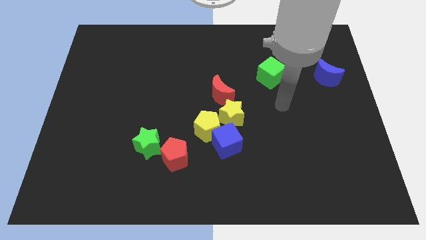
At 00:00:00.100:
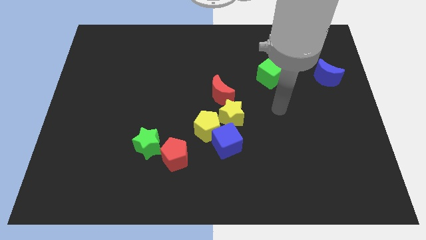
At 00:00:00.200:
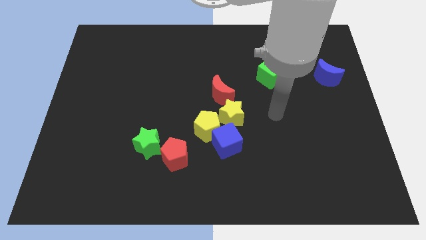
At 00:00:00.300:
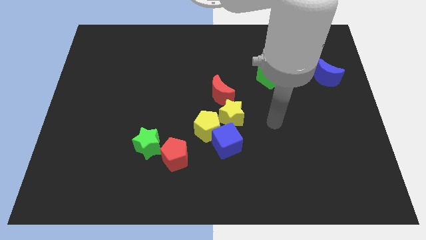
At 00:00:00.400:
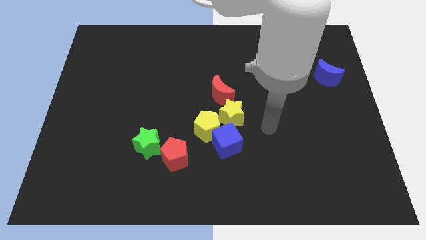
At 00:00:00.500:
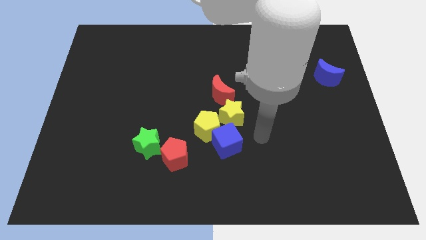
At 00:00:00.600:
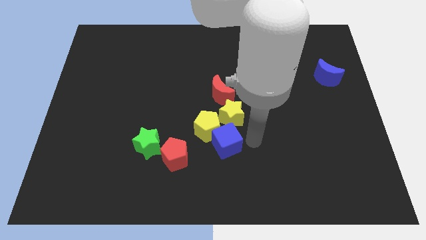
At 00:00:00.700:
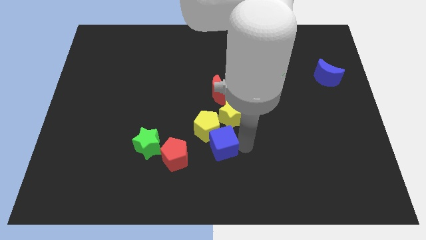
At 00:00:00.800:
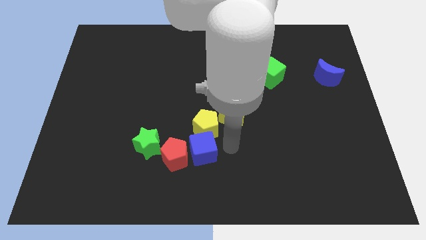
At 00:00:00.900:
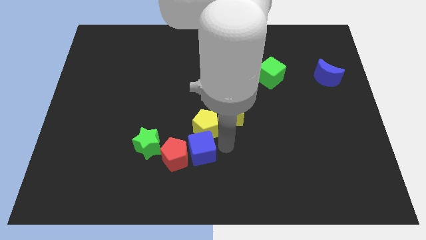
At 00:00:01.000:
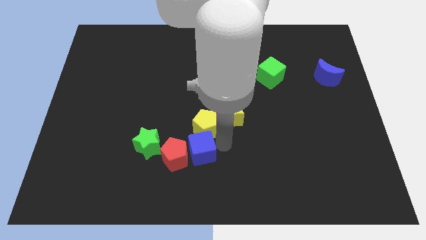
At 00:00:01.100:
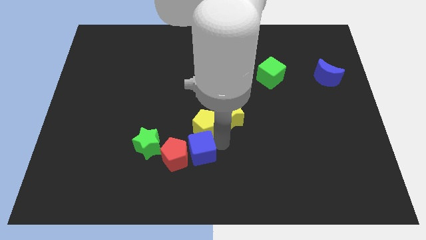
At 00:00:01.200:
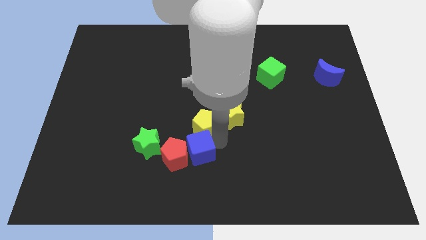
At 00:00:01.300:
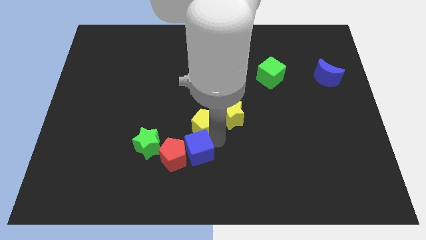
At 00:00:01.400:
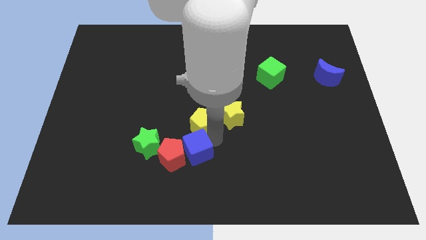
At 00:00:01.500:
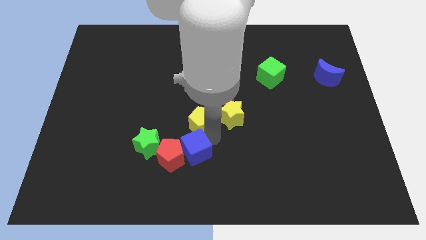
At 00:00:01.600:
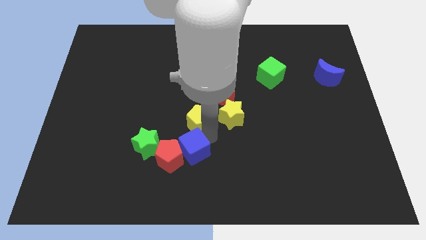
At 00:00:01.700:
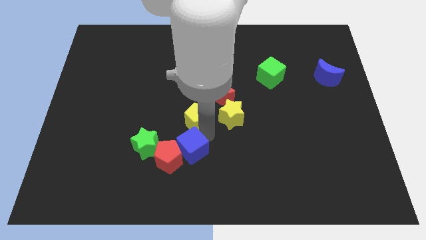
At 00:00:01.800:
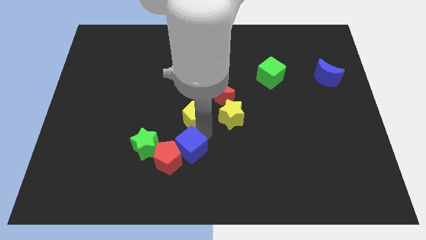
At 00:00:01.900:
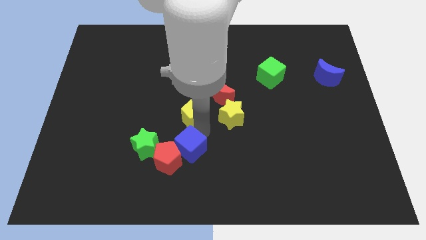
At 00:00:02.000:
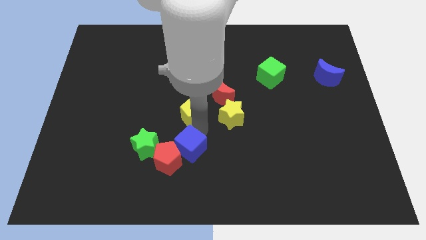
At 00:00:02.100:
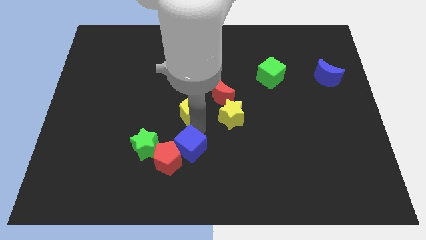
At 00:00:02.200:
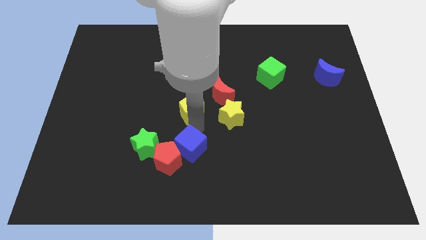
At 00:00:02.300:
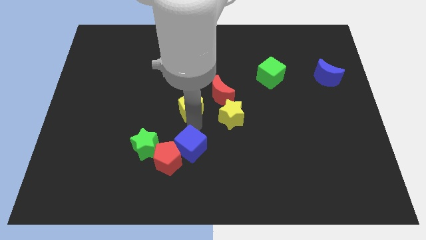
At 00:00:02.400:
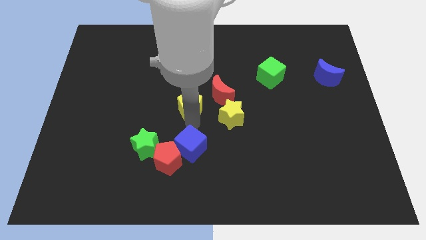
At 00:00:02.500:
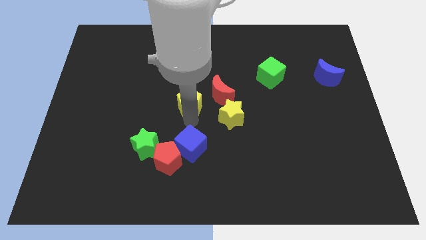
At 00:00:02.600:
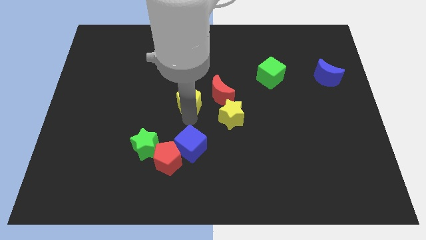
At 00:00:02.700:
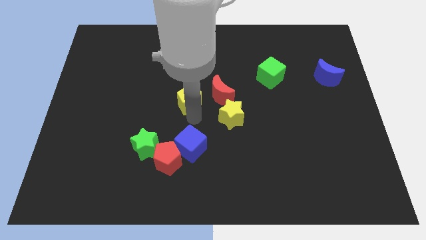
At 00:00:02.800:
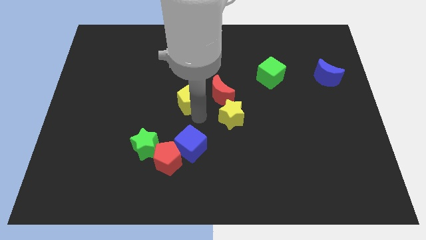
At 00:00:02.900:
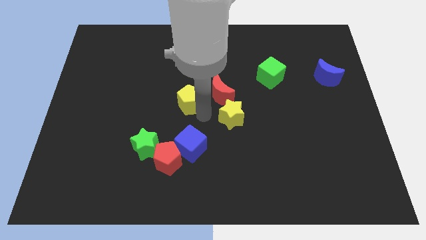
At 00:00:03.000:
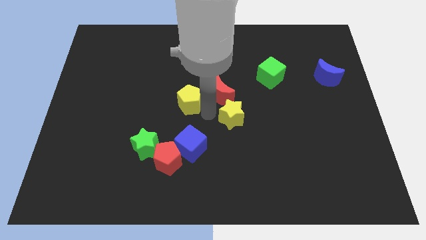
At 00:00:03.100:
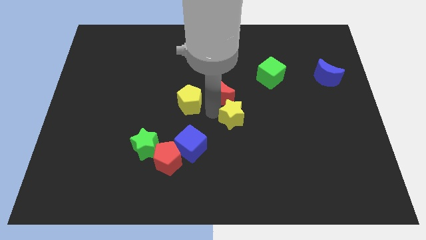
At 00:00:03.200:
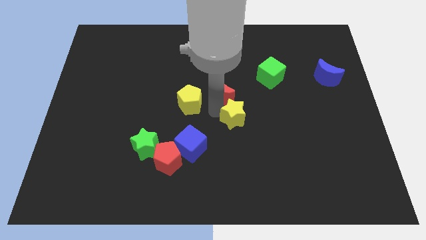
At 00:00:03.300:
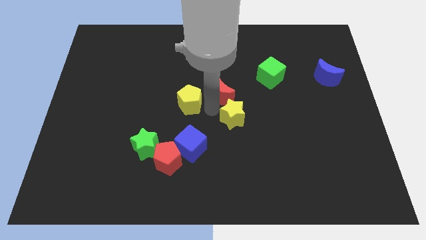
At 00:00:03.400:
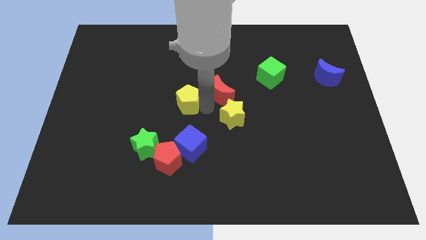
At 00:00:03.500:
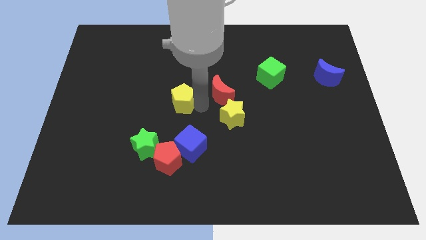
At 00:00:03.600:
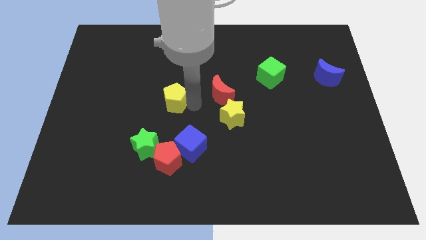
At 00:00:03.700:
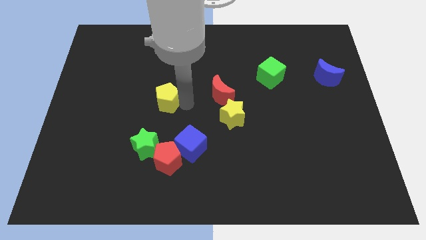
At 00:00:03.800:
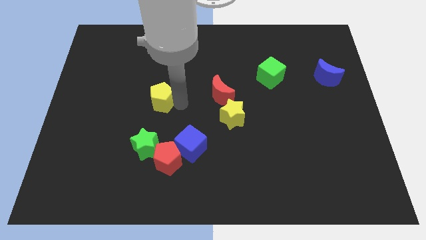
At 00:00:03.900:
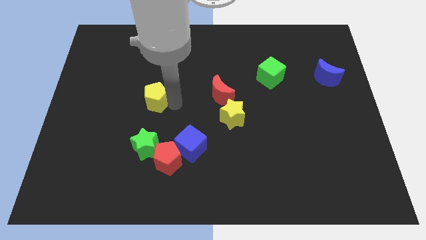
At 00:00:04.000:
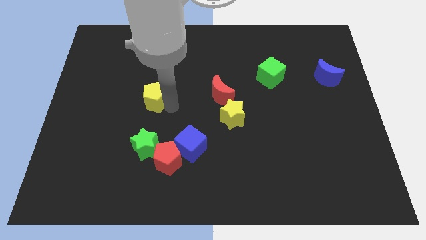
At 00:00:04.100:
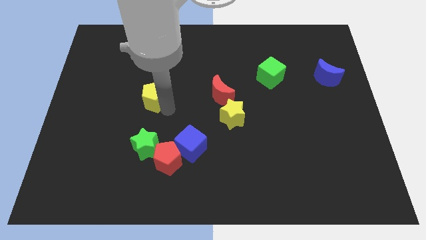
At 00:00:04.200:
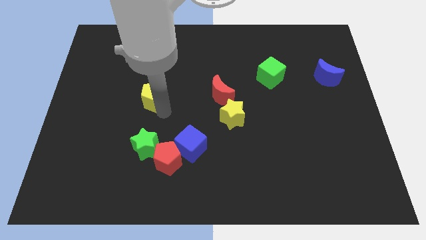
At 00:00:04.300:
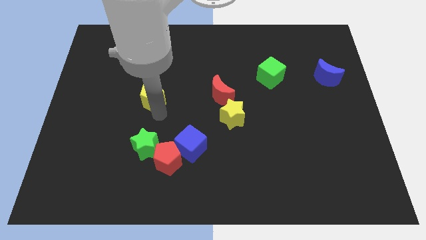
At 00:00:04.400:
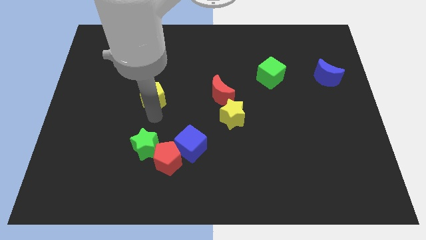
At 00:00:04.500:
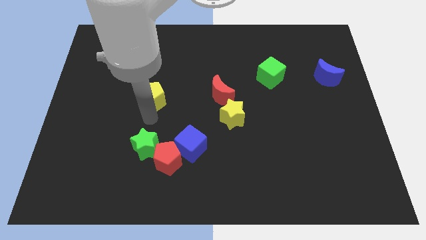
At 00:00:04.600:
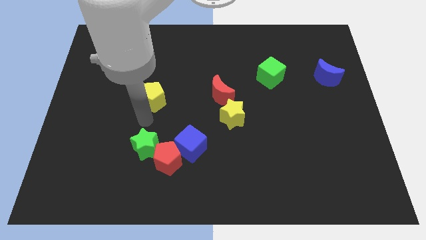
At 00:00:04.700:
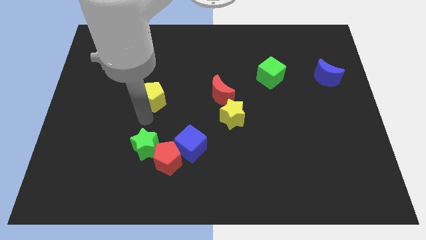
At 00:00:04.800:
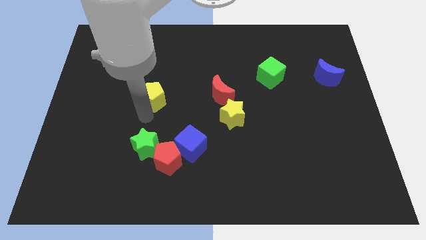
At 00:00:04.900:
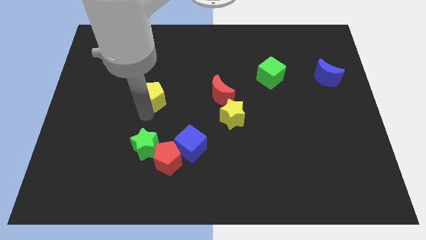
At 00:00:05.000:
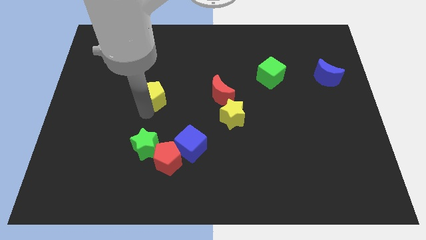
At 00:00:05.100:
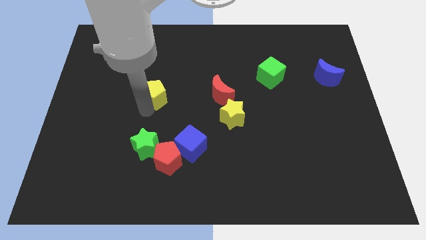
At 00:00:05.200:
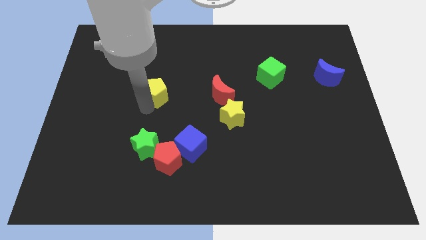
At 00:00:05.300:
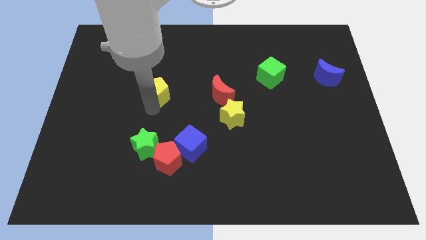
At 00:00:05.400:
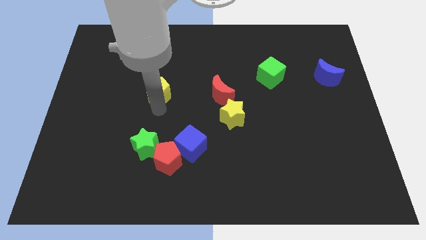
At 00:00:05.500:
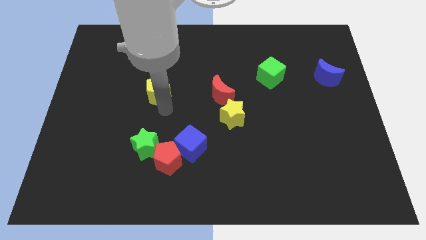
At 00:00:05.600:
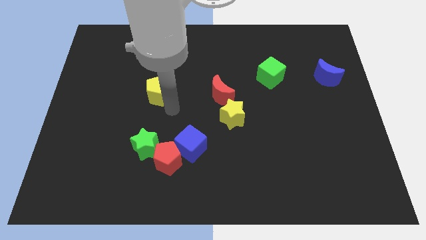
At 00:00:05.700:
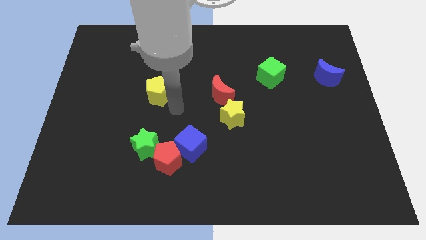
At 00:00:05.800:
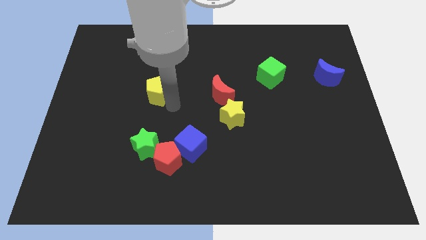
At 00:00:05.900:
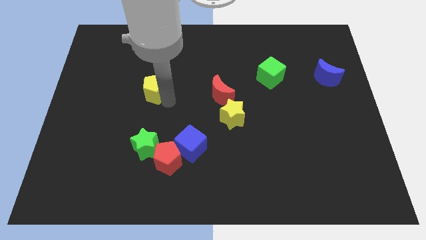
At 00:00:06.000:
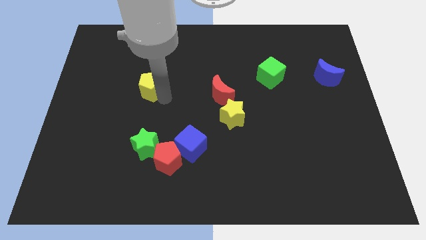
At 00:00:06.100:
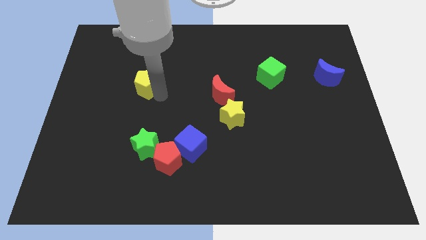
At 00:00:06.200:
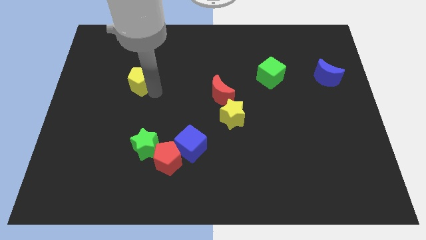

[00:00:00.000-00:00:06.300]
move the yellow pentagon upwards and left diagonally

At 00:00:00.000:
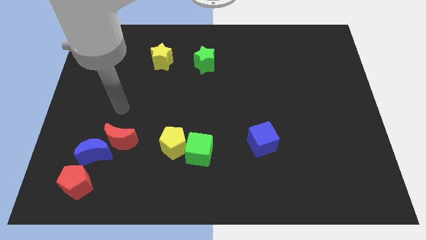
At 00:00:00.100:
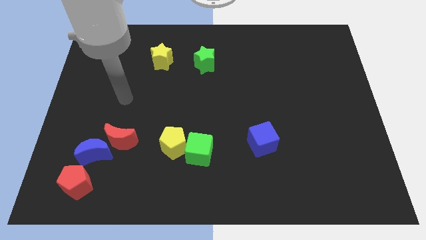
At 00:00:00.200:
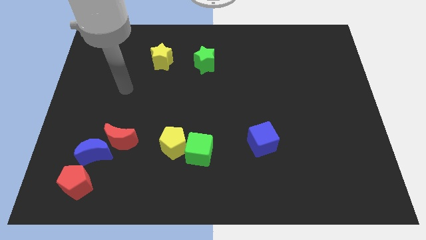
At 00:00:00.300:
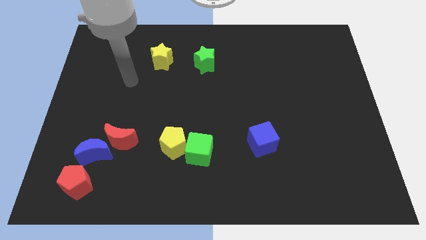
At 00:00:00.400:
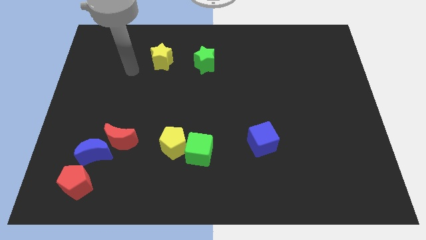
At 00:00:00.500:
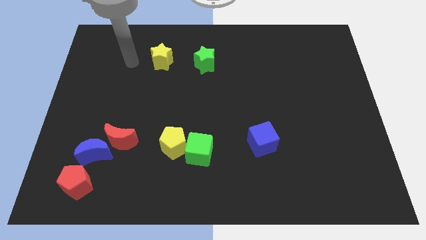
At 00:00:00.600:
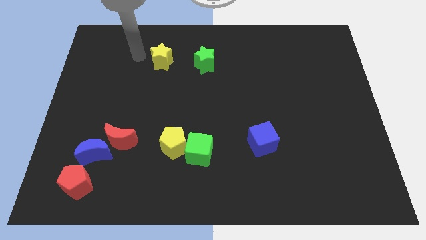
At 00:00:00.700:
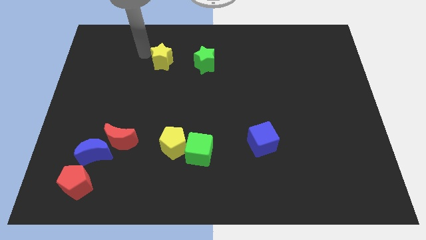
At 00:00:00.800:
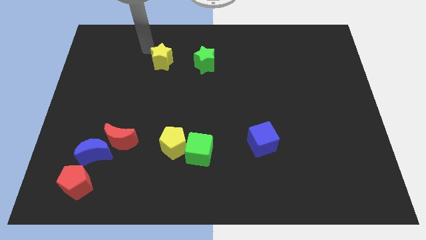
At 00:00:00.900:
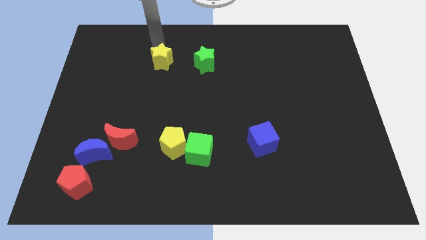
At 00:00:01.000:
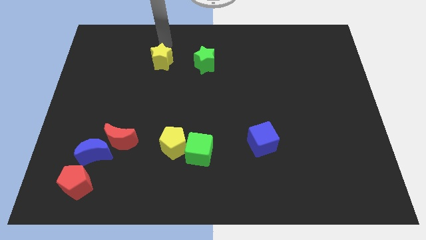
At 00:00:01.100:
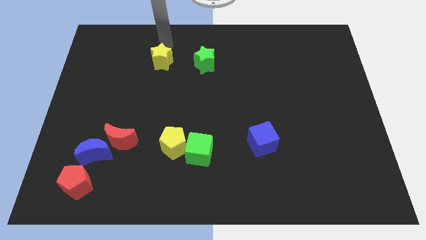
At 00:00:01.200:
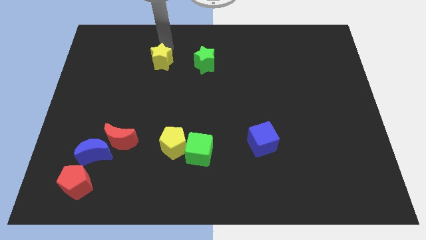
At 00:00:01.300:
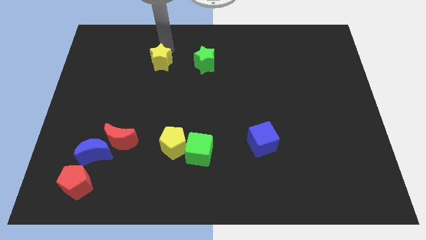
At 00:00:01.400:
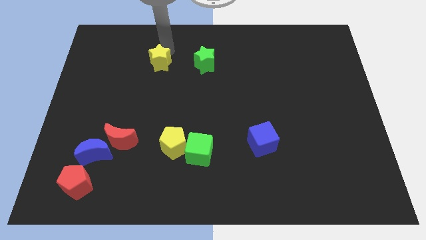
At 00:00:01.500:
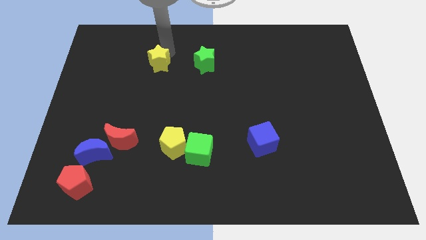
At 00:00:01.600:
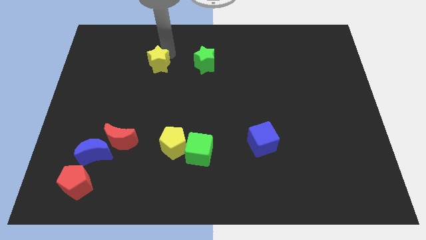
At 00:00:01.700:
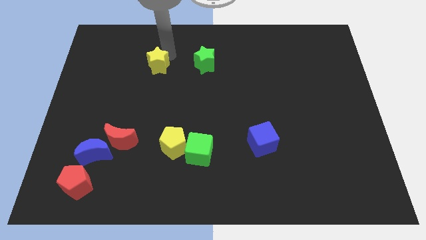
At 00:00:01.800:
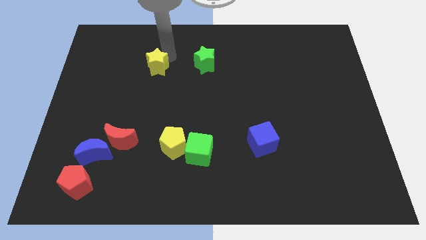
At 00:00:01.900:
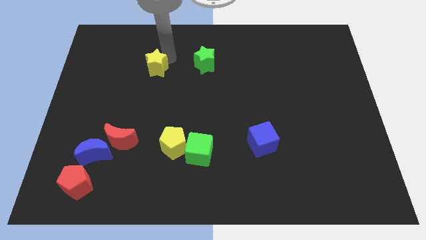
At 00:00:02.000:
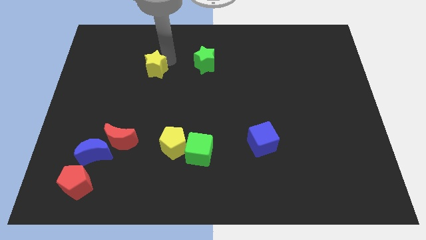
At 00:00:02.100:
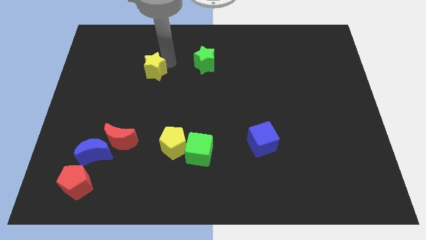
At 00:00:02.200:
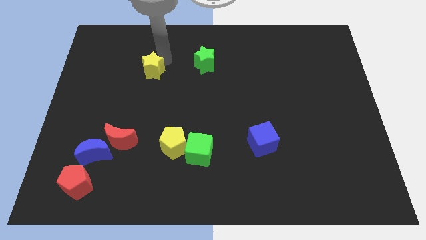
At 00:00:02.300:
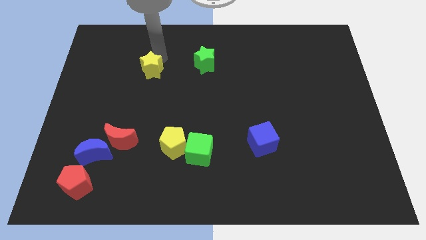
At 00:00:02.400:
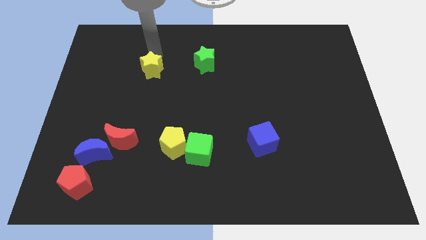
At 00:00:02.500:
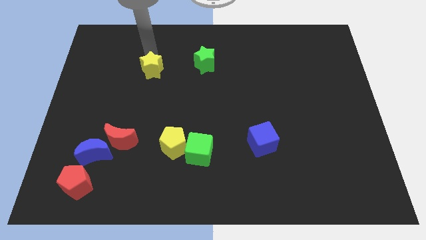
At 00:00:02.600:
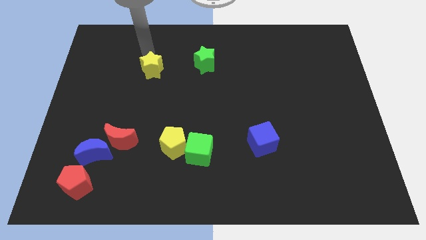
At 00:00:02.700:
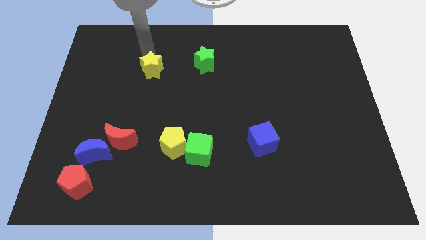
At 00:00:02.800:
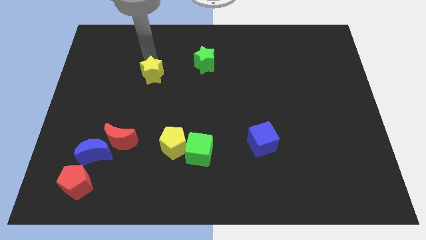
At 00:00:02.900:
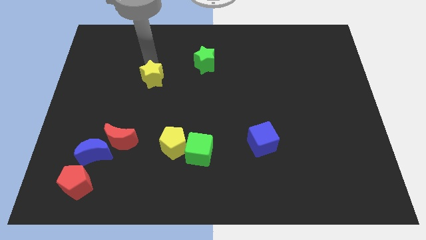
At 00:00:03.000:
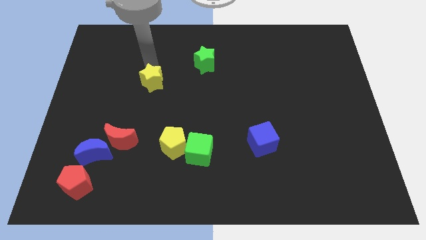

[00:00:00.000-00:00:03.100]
move the yellow star down a little bit
